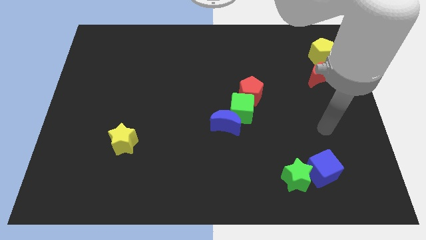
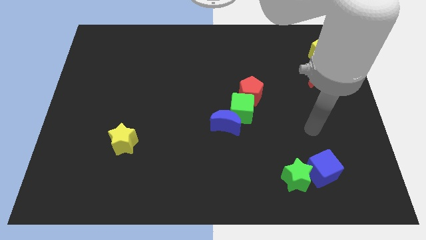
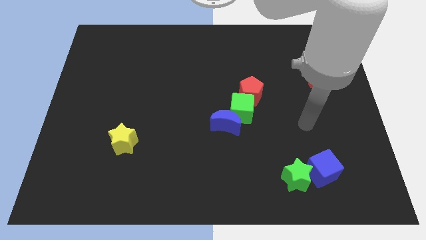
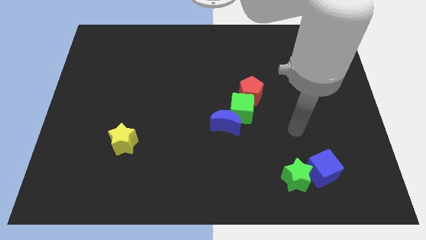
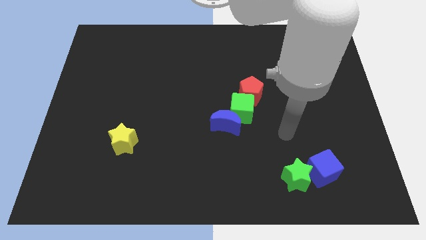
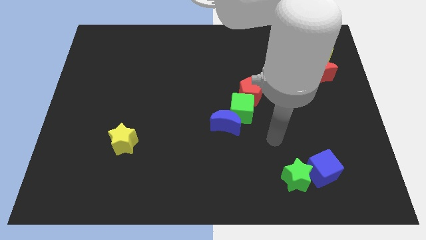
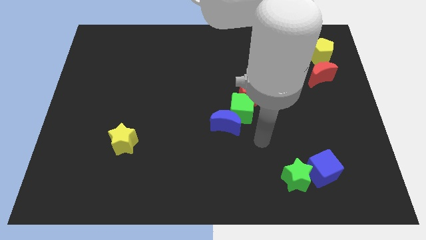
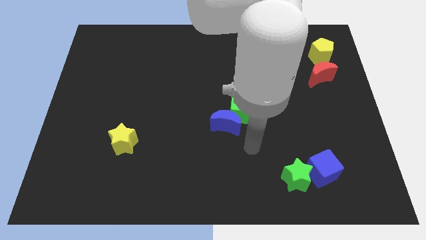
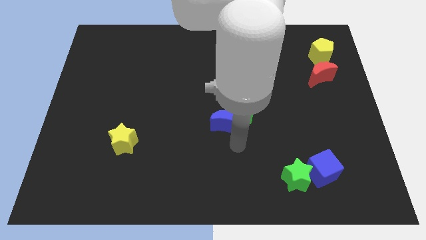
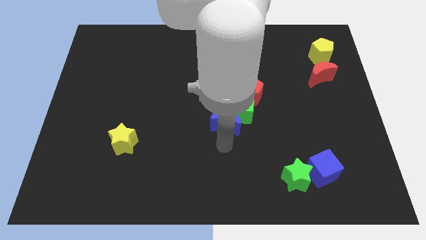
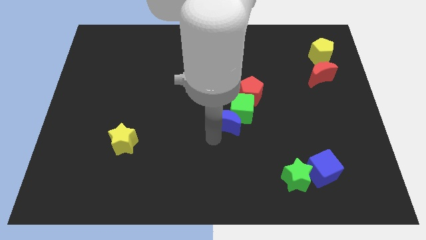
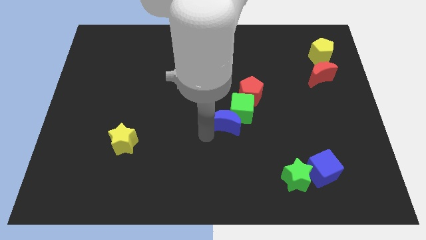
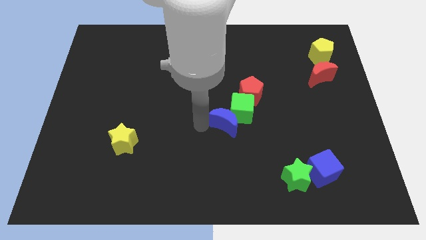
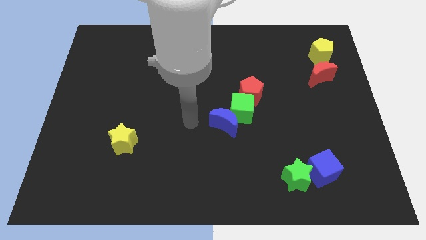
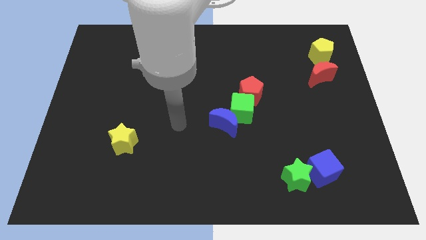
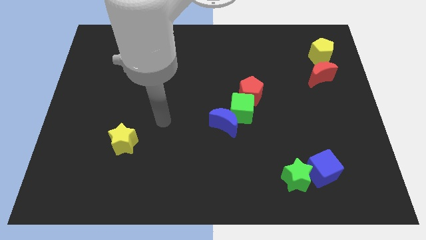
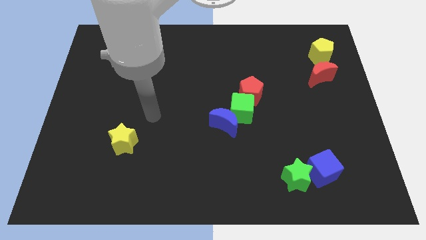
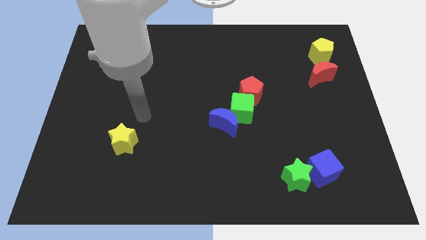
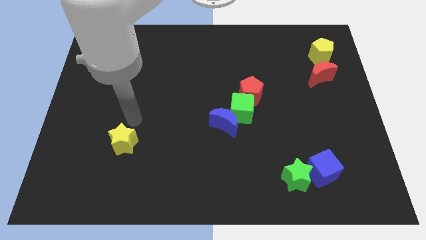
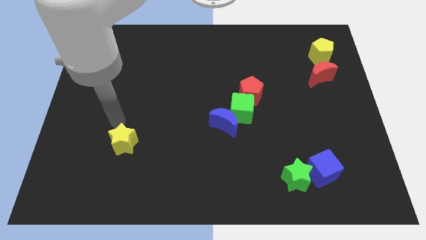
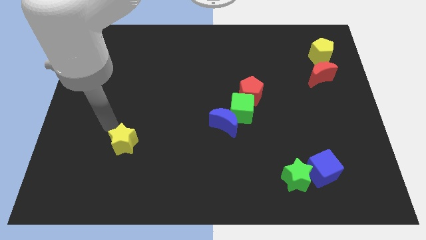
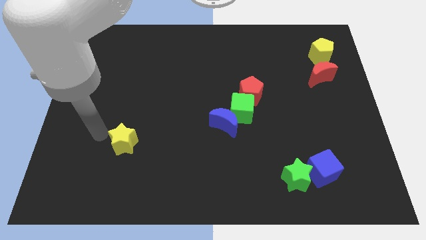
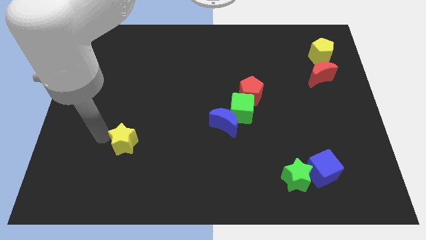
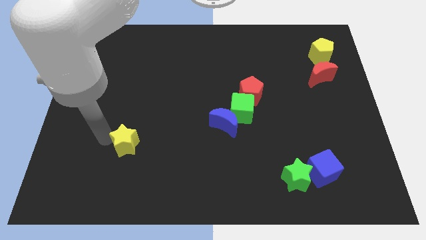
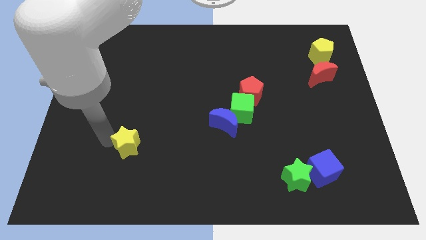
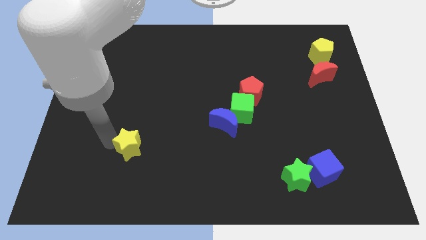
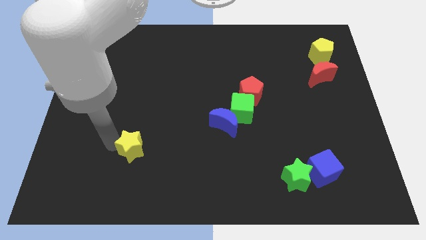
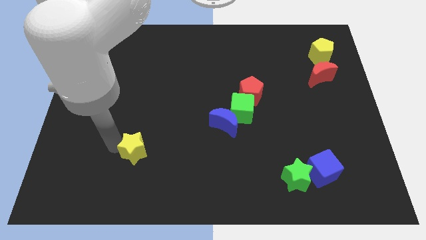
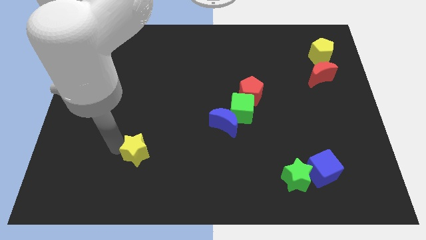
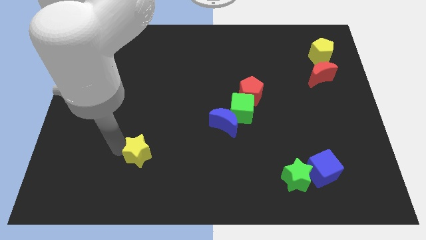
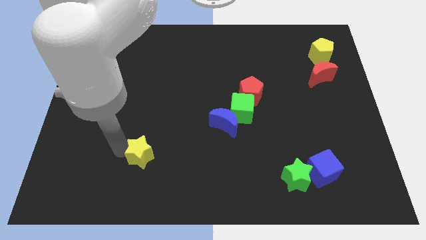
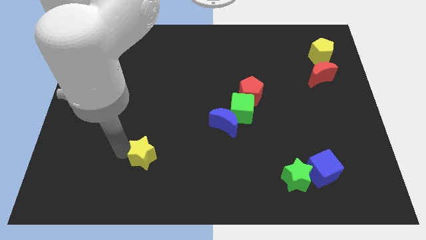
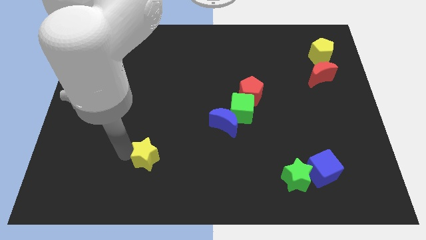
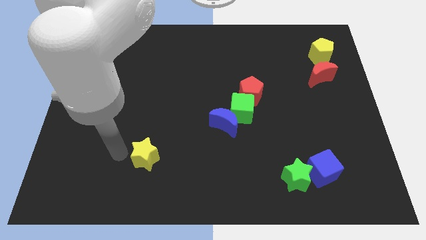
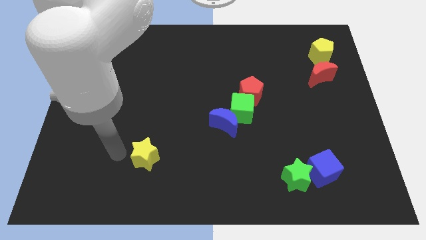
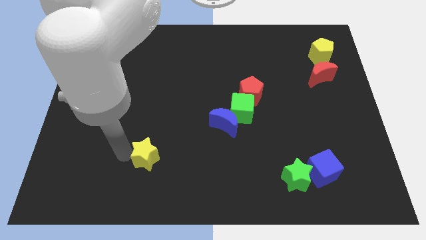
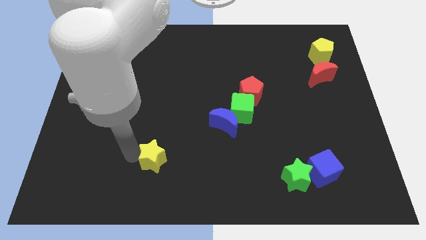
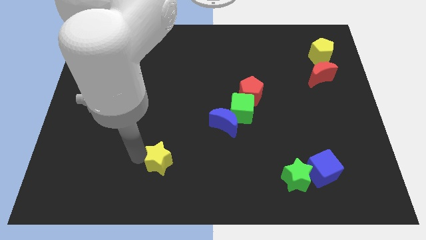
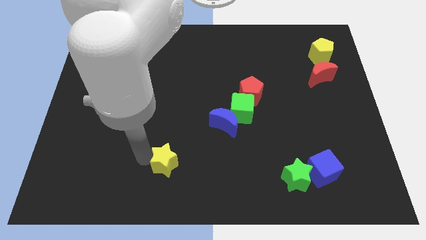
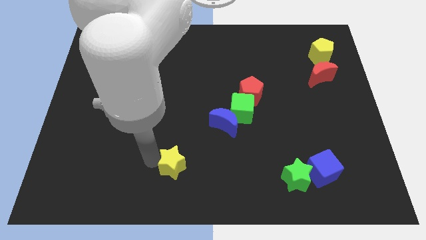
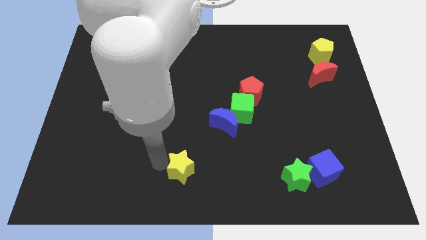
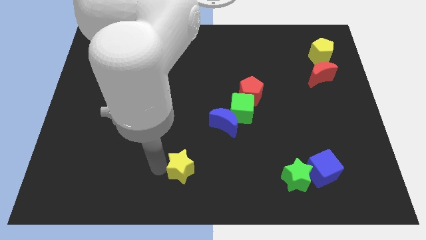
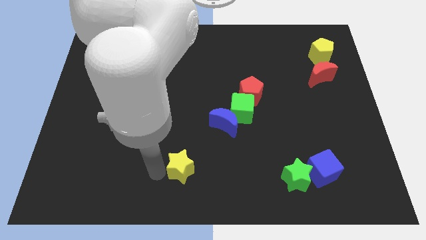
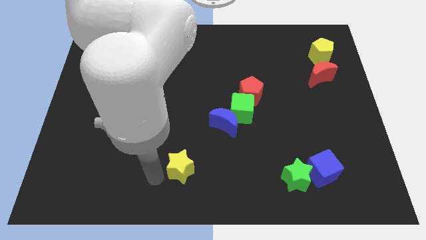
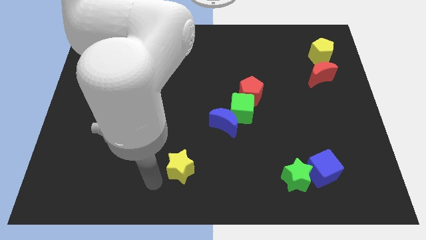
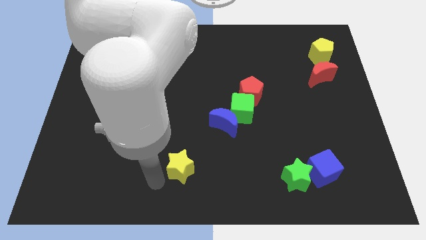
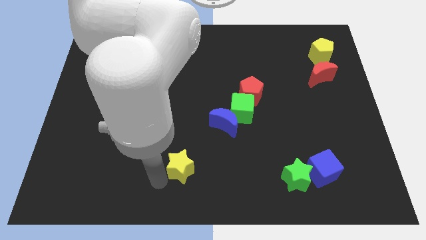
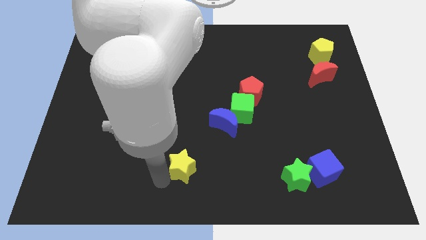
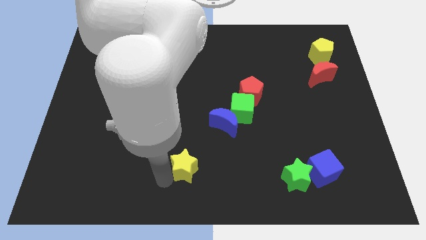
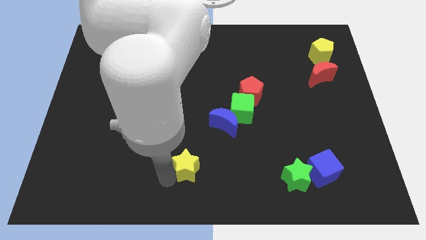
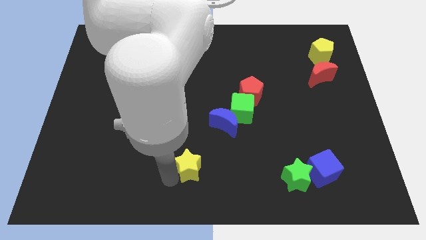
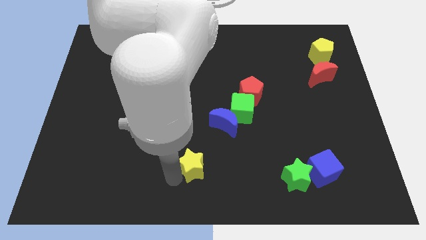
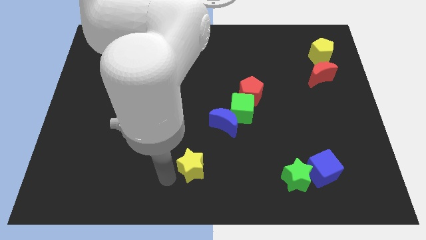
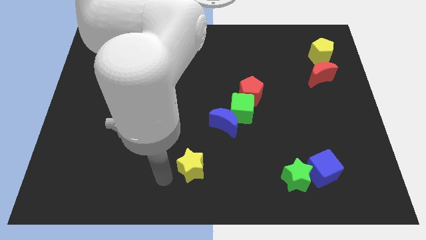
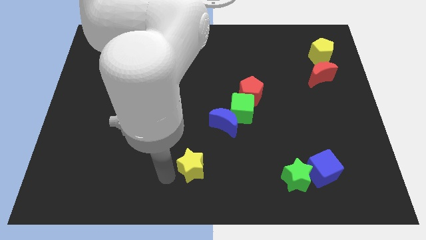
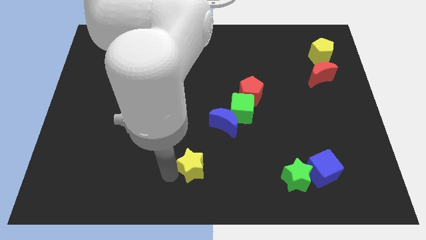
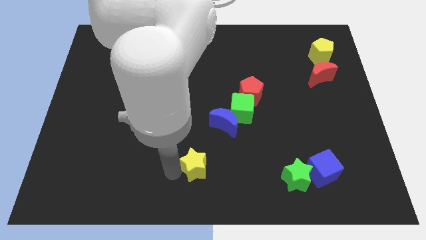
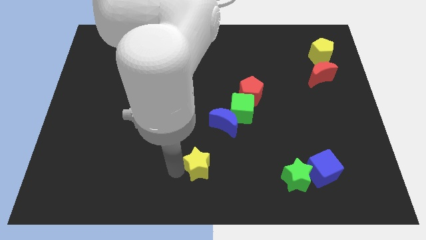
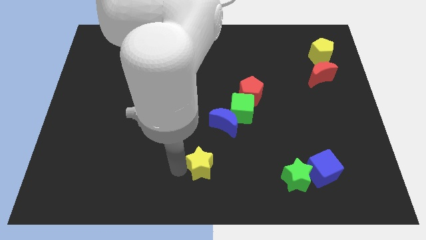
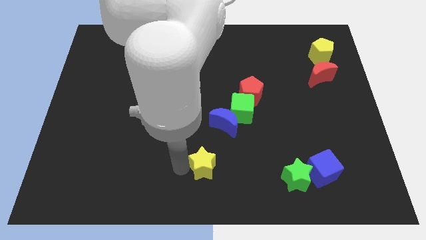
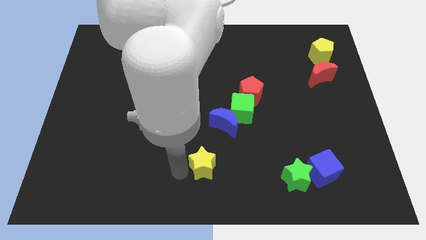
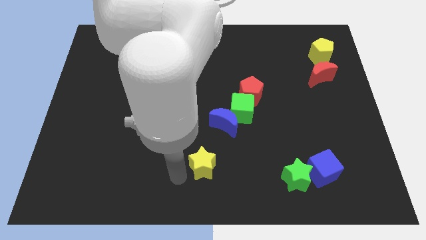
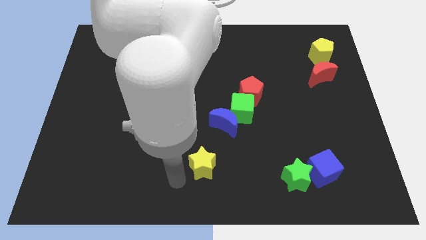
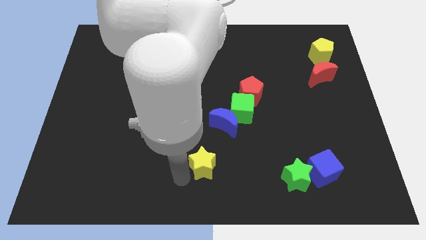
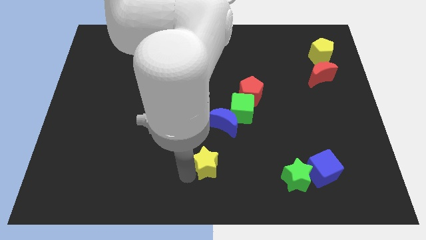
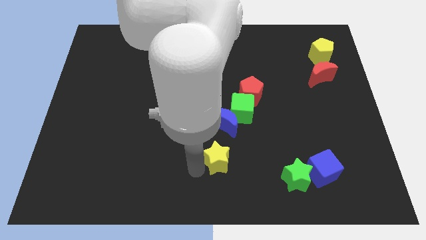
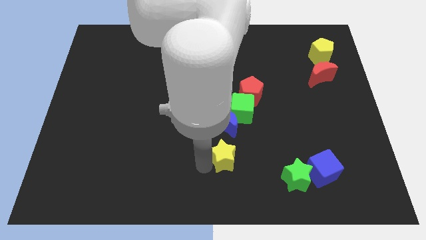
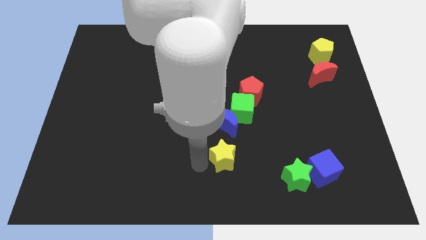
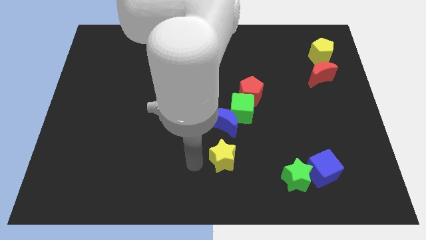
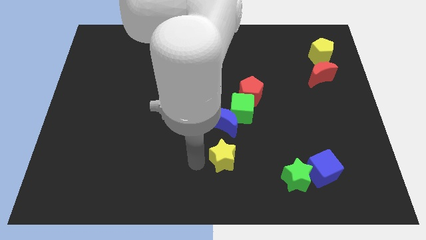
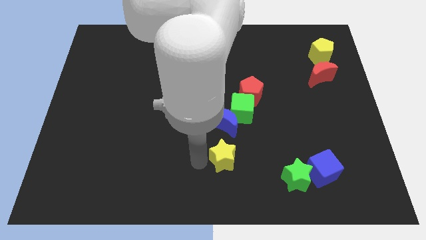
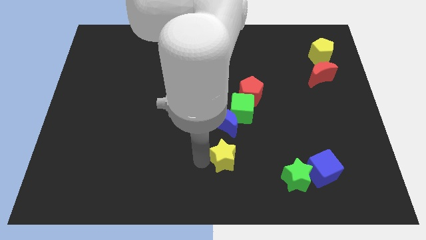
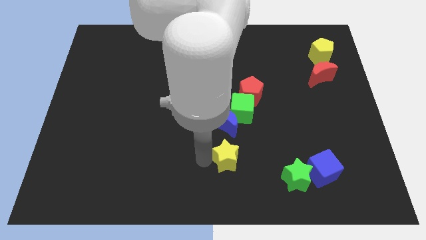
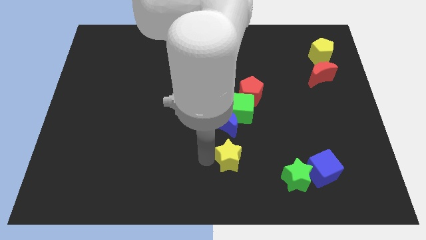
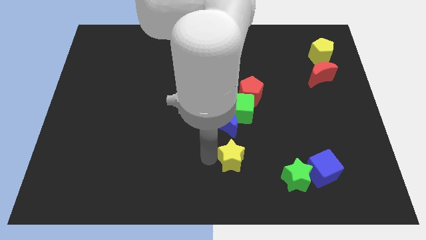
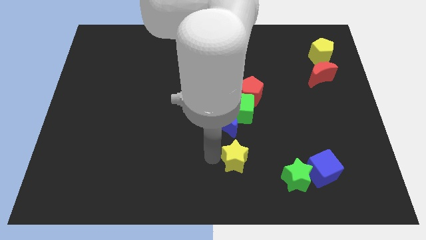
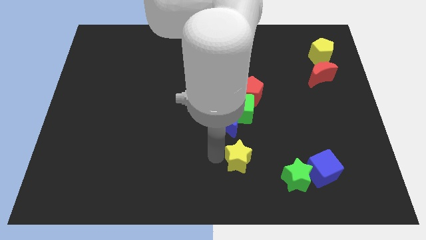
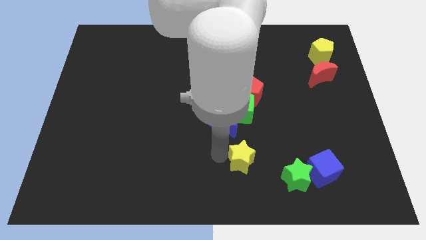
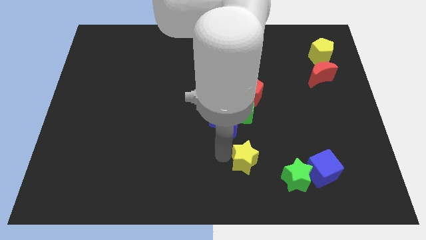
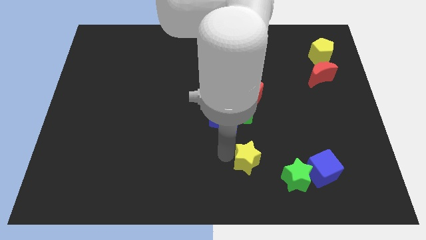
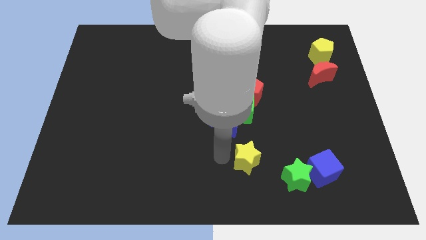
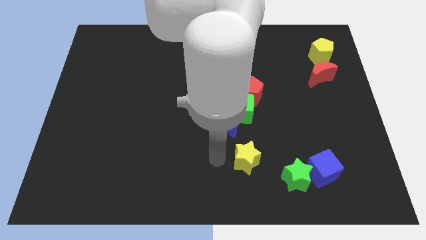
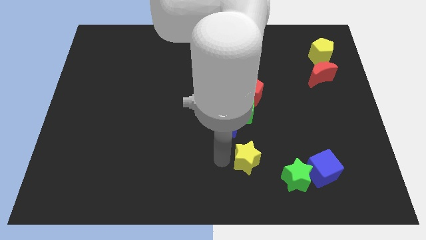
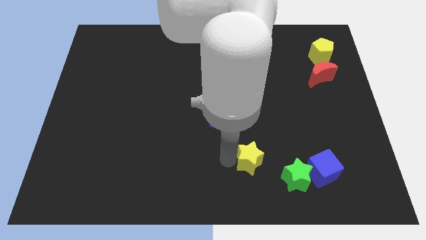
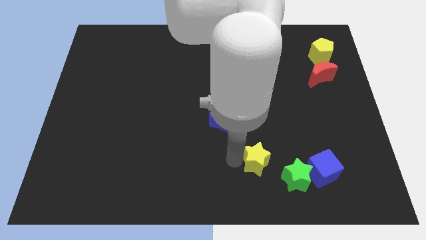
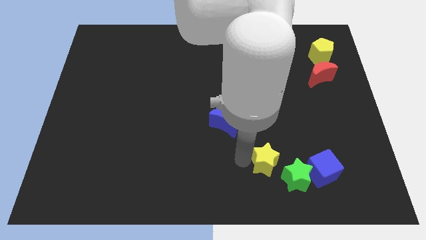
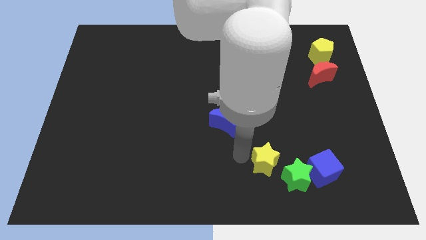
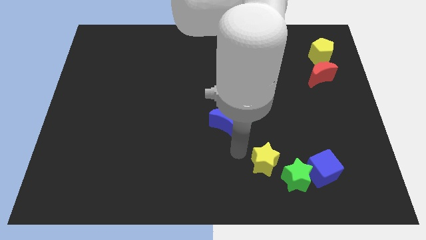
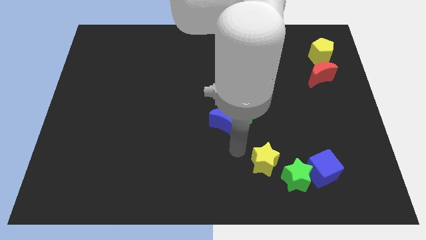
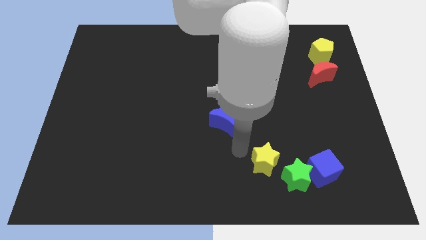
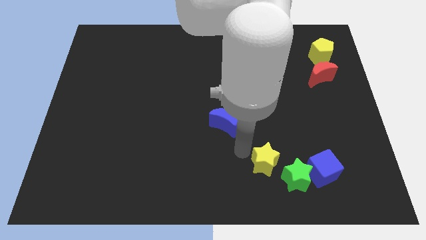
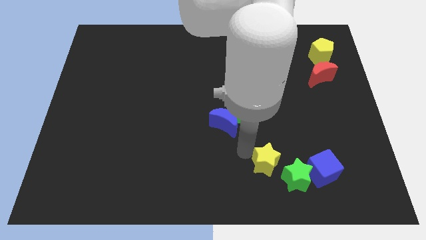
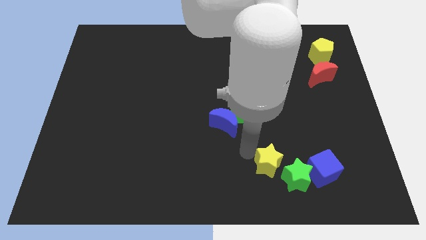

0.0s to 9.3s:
push the yellow star to the green star
